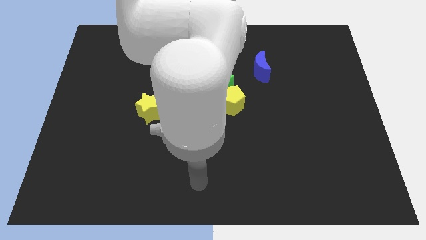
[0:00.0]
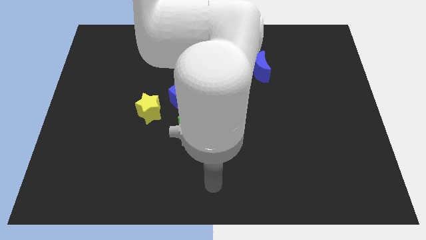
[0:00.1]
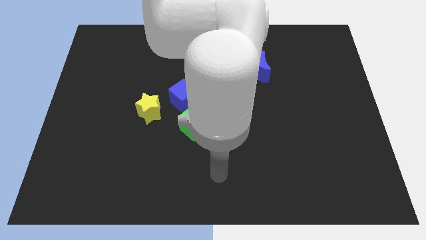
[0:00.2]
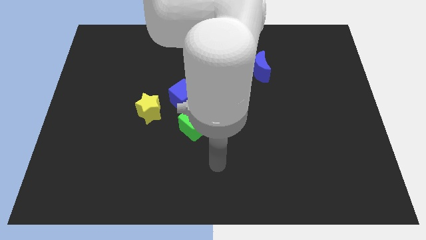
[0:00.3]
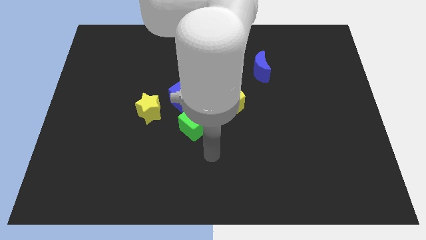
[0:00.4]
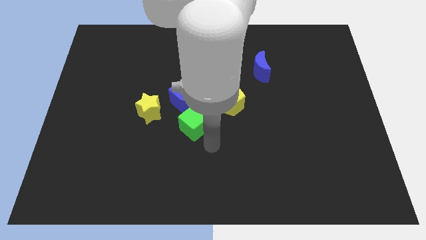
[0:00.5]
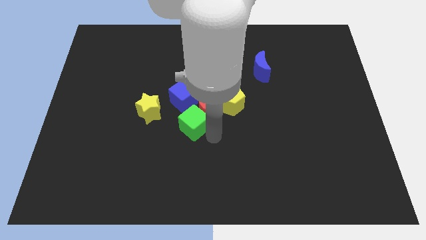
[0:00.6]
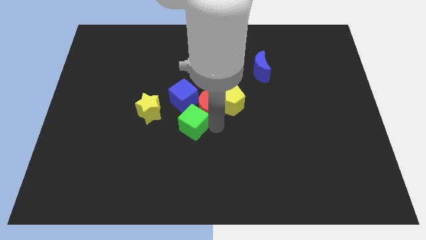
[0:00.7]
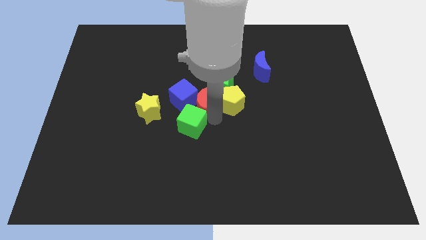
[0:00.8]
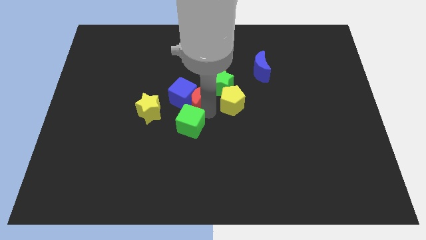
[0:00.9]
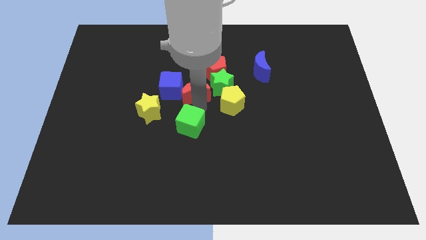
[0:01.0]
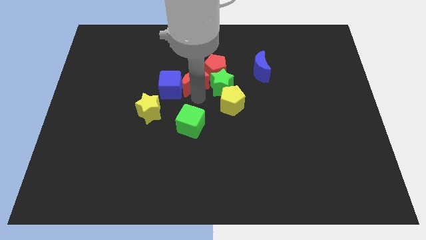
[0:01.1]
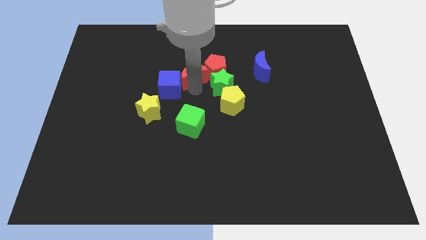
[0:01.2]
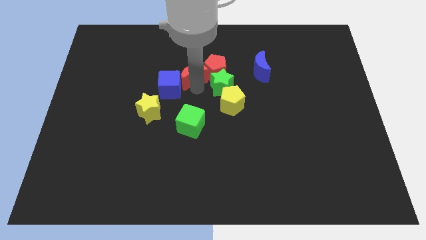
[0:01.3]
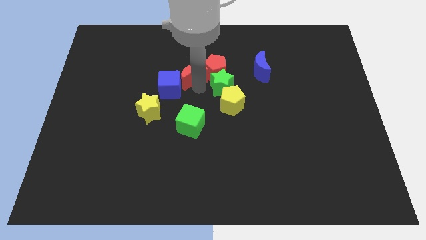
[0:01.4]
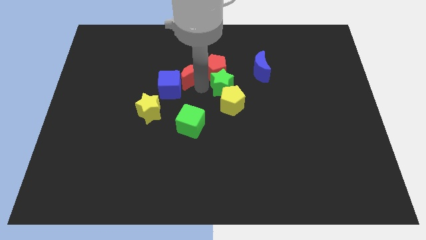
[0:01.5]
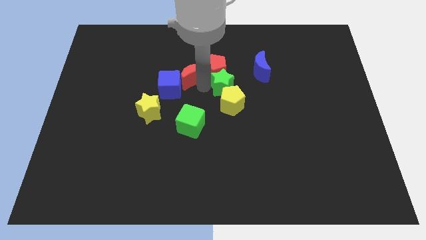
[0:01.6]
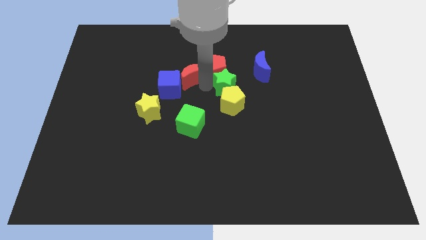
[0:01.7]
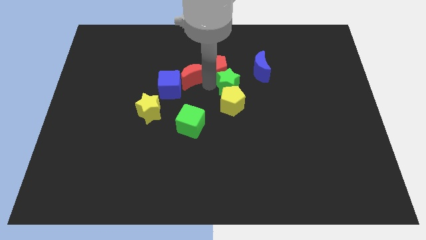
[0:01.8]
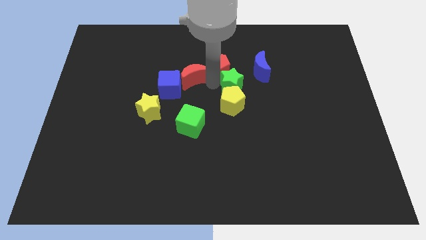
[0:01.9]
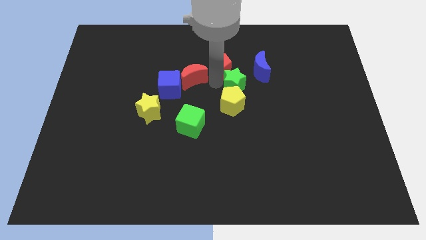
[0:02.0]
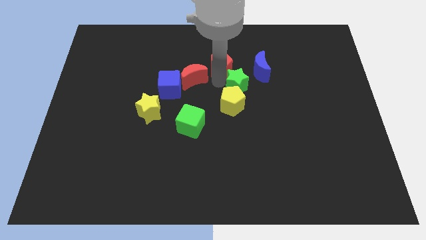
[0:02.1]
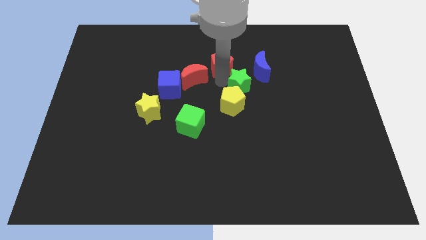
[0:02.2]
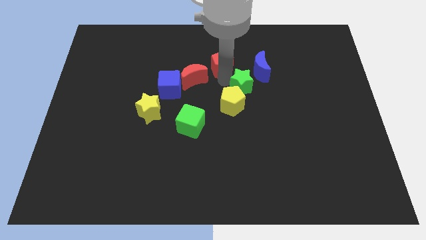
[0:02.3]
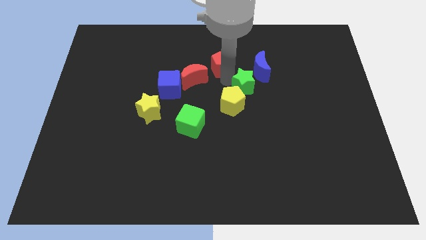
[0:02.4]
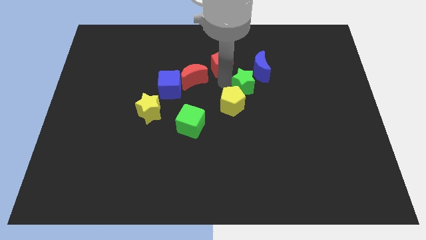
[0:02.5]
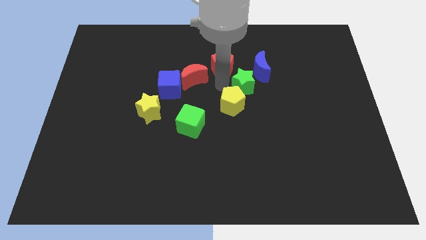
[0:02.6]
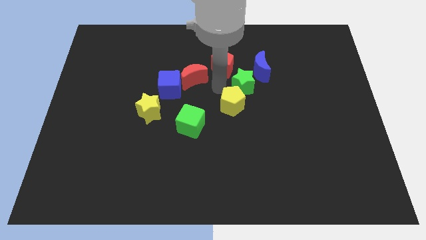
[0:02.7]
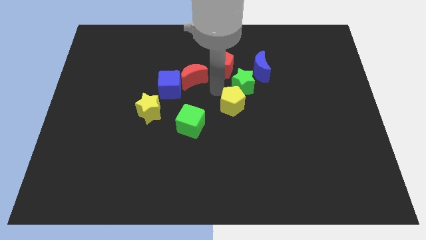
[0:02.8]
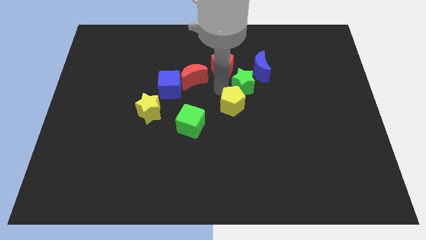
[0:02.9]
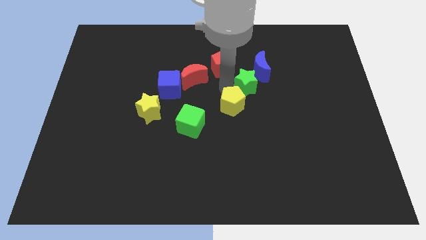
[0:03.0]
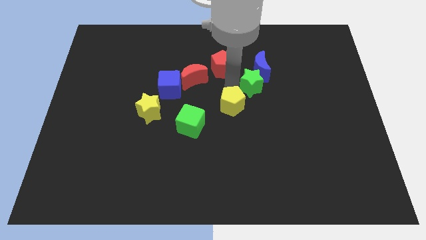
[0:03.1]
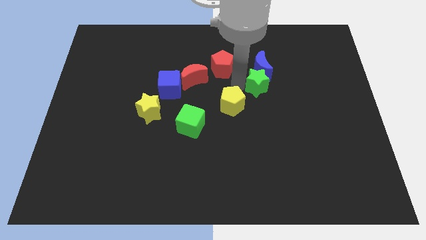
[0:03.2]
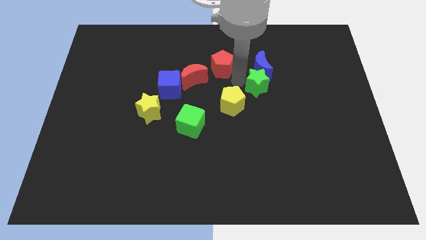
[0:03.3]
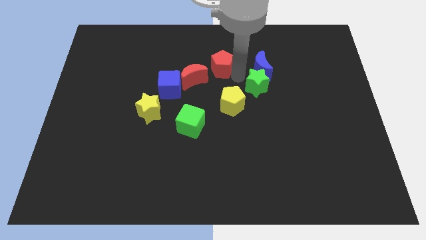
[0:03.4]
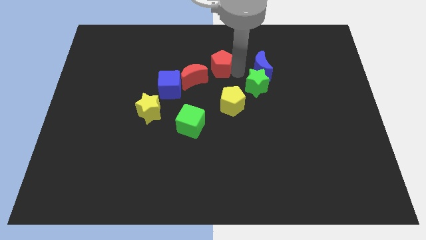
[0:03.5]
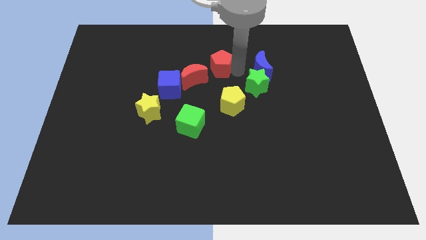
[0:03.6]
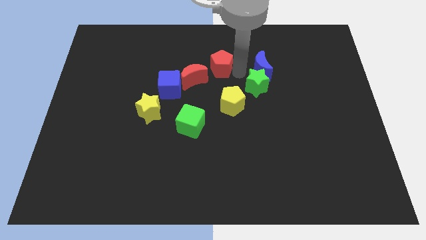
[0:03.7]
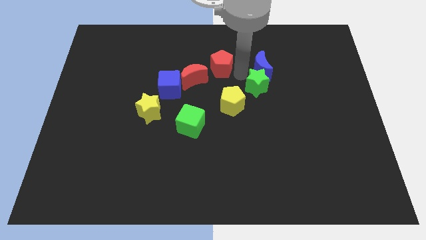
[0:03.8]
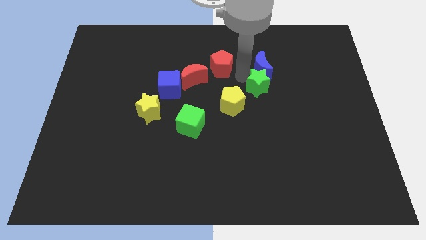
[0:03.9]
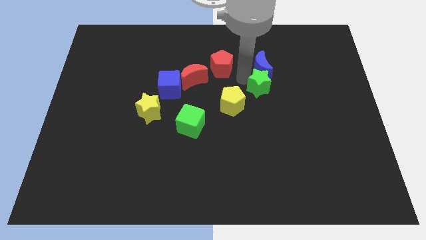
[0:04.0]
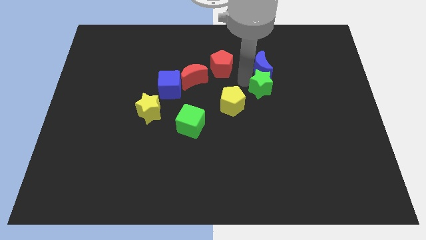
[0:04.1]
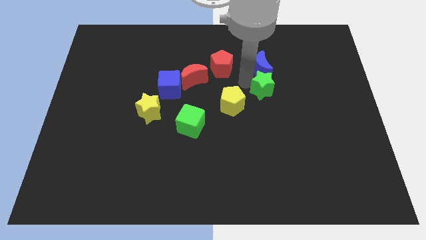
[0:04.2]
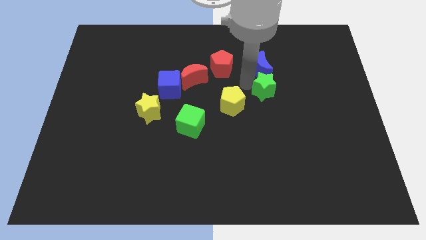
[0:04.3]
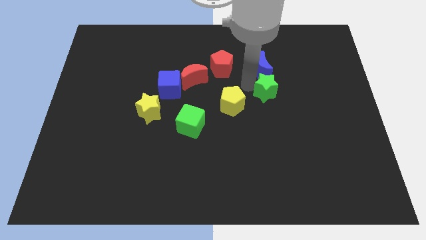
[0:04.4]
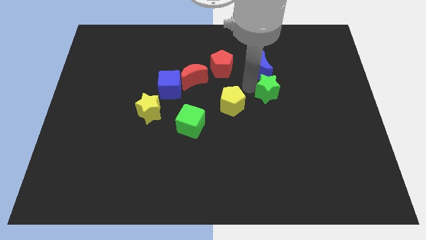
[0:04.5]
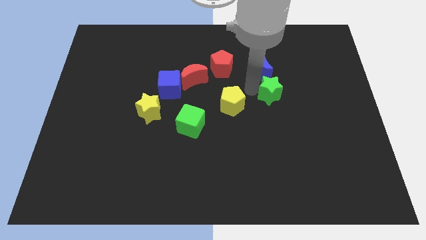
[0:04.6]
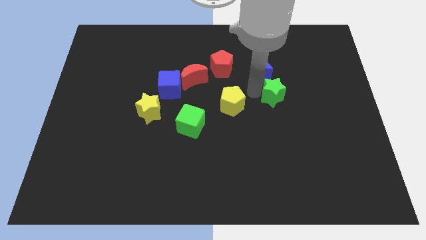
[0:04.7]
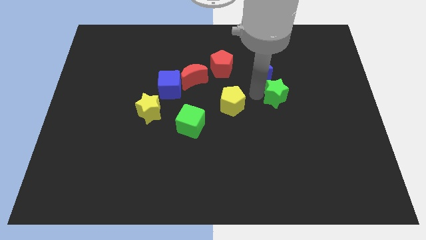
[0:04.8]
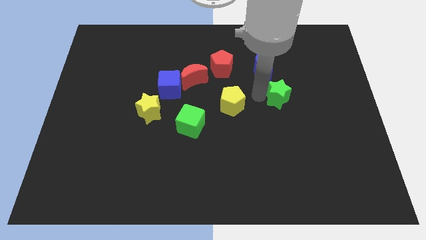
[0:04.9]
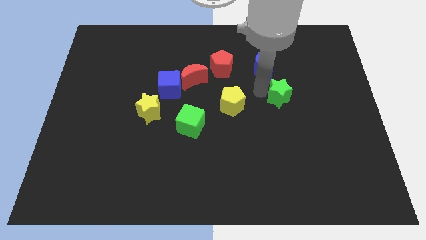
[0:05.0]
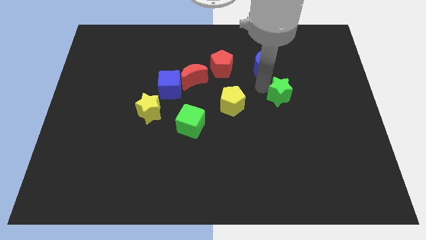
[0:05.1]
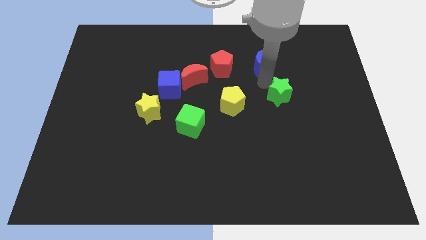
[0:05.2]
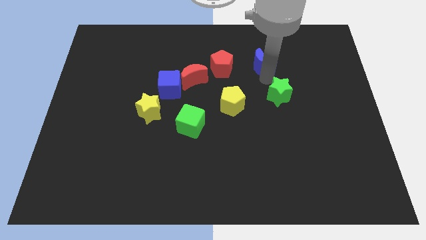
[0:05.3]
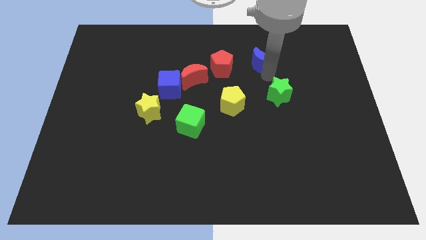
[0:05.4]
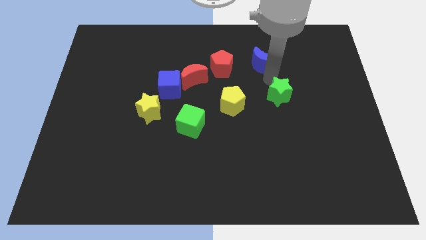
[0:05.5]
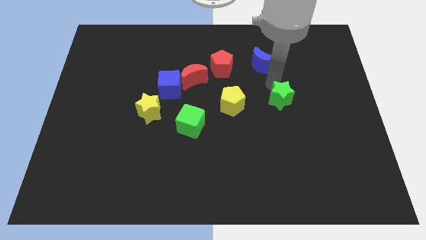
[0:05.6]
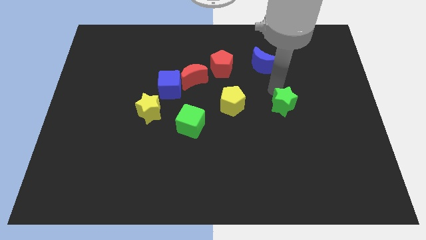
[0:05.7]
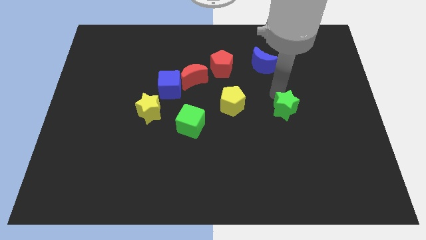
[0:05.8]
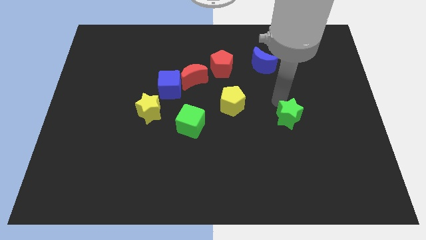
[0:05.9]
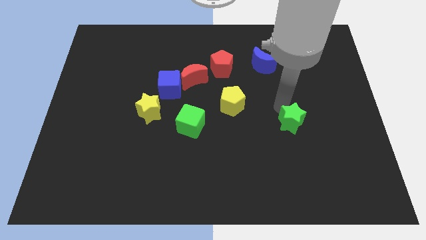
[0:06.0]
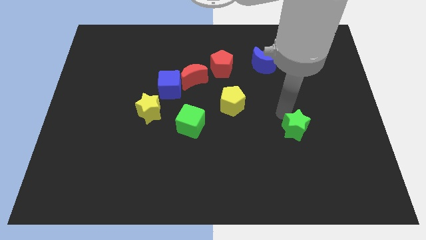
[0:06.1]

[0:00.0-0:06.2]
push the green star downwards and to the right diagonally

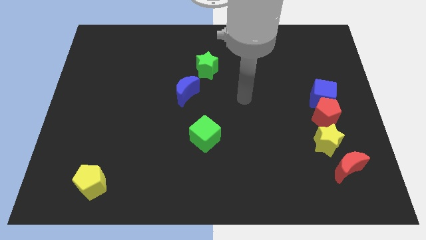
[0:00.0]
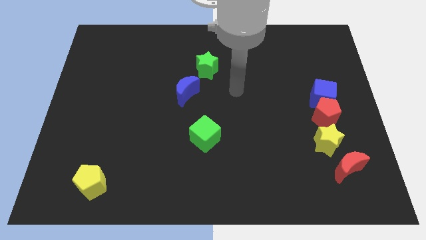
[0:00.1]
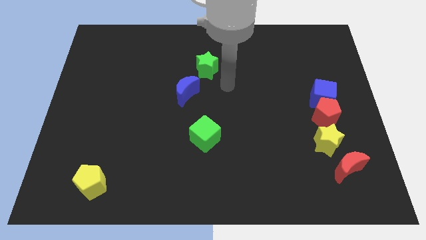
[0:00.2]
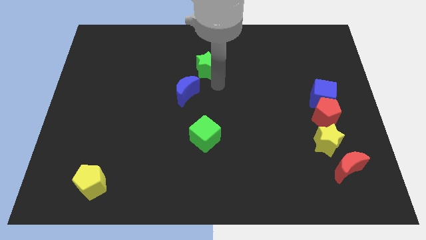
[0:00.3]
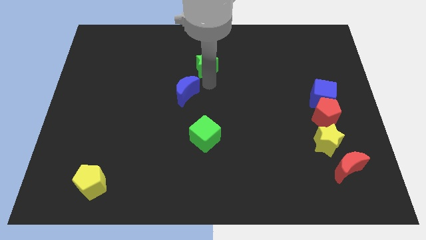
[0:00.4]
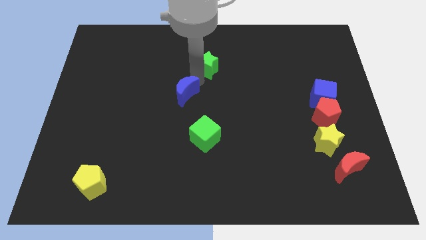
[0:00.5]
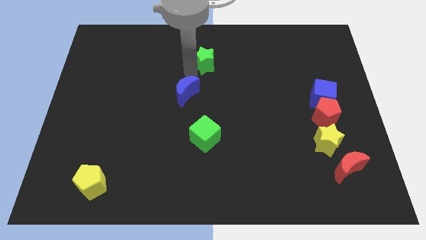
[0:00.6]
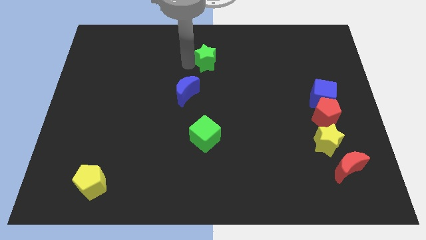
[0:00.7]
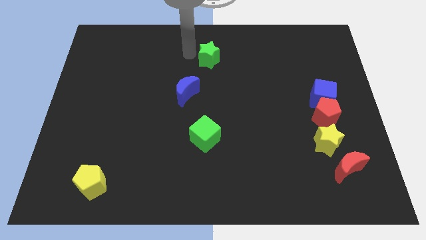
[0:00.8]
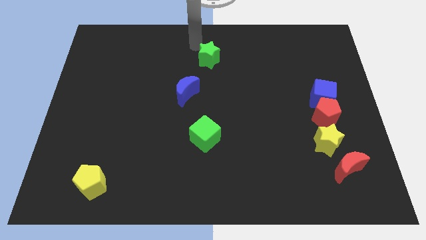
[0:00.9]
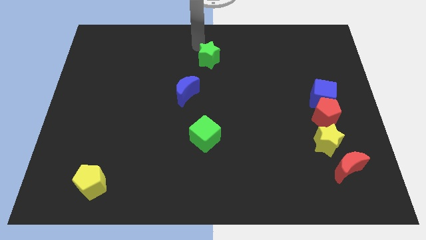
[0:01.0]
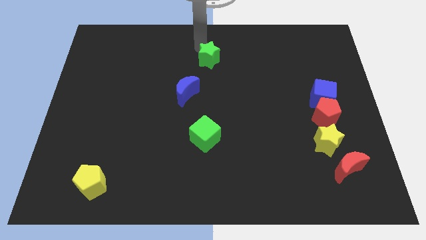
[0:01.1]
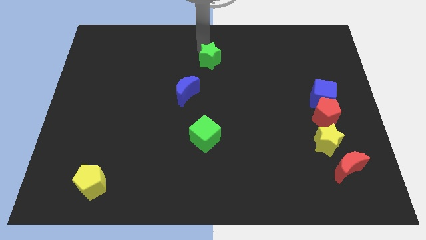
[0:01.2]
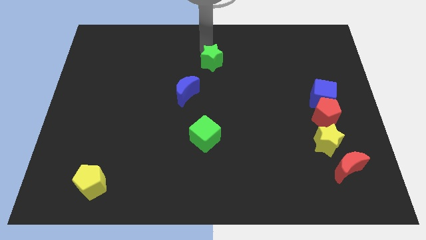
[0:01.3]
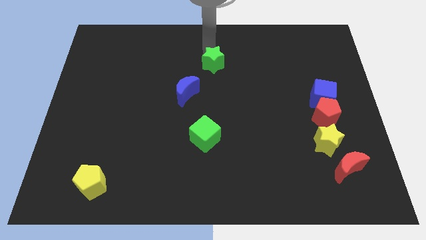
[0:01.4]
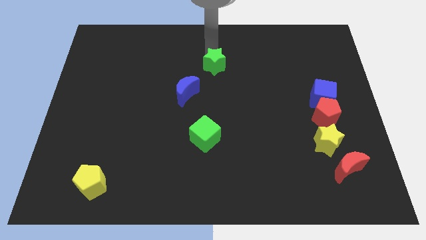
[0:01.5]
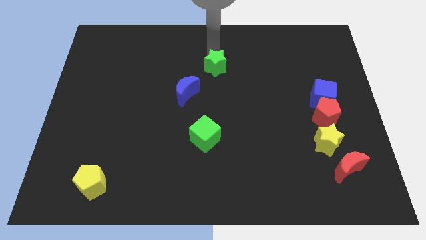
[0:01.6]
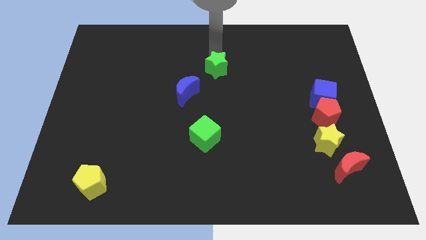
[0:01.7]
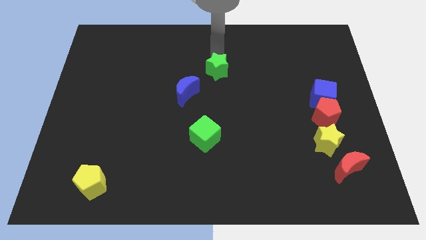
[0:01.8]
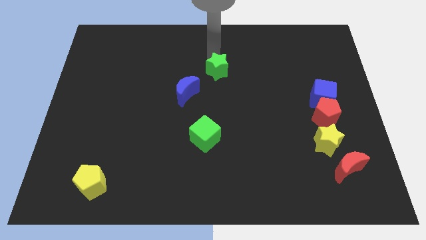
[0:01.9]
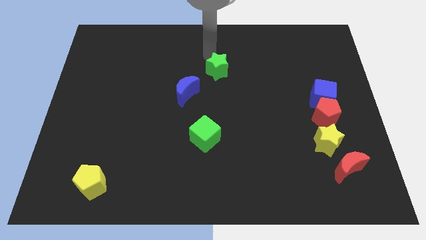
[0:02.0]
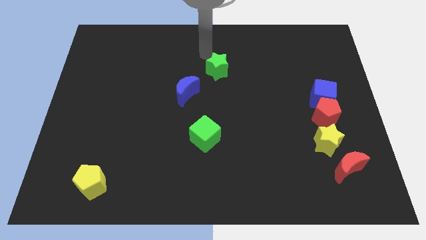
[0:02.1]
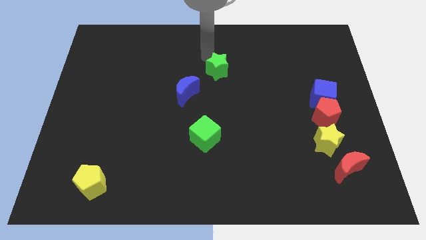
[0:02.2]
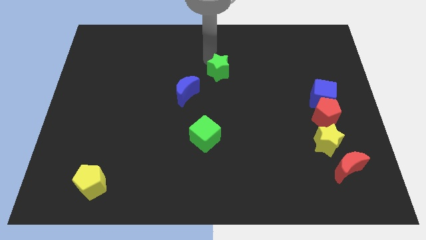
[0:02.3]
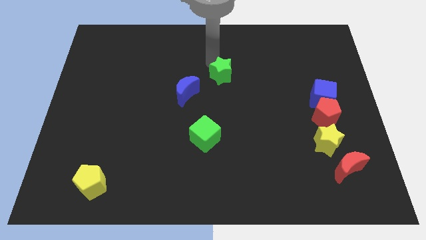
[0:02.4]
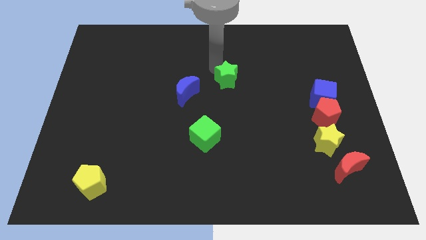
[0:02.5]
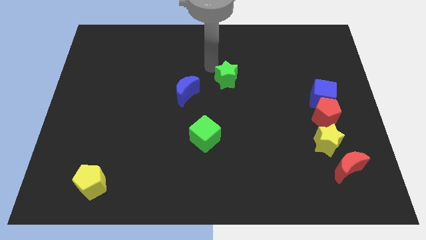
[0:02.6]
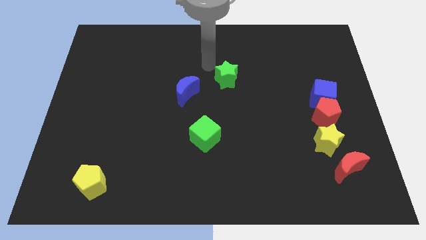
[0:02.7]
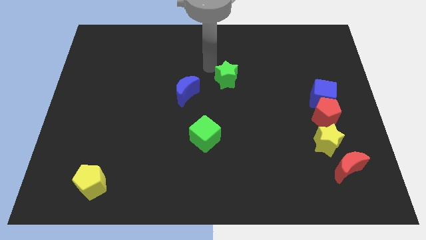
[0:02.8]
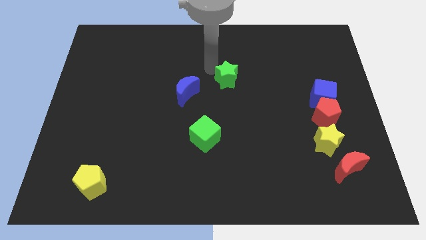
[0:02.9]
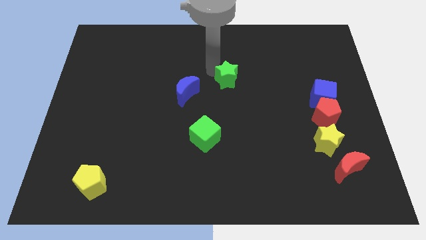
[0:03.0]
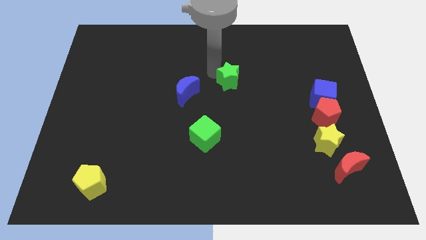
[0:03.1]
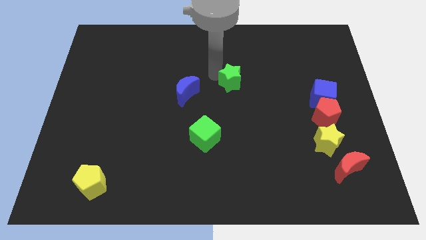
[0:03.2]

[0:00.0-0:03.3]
move the green star a little diagonally downwards and to the right
